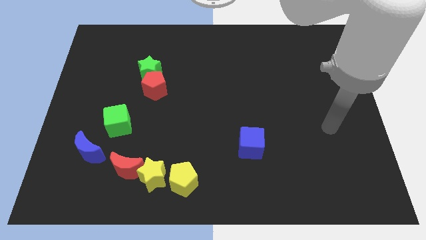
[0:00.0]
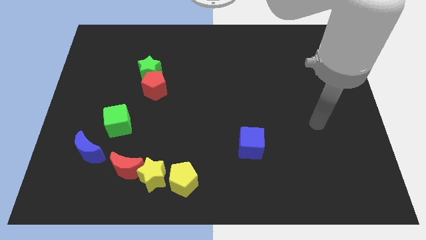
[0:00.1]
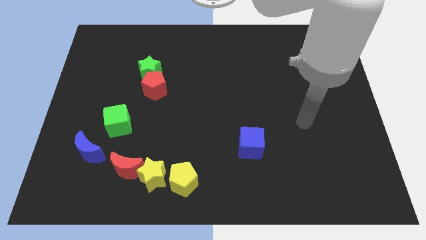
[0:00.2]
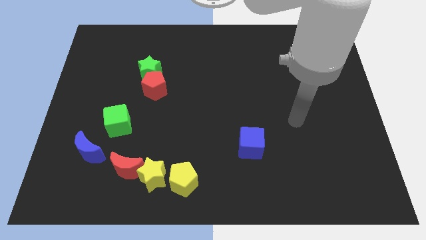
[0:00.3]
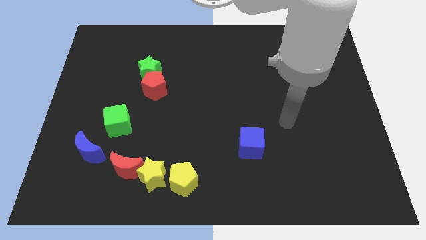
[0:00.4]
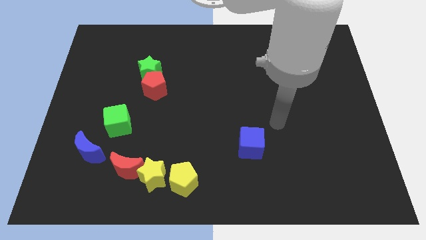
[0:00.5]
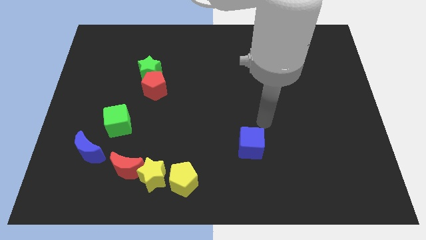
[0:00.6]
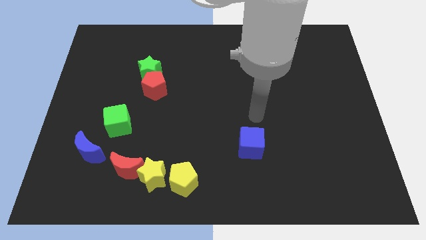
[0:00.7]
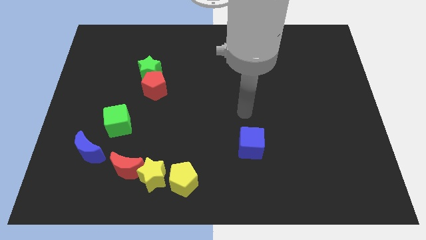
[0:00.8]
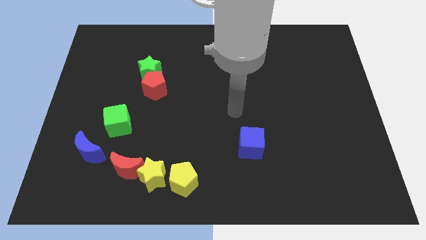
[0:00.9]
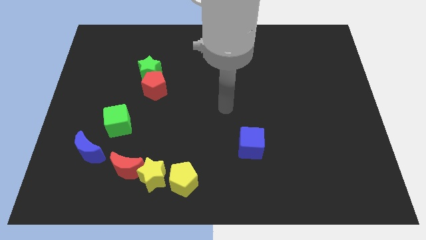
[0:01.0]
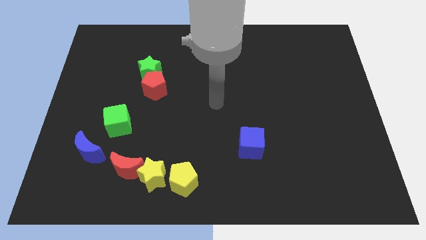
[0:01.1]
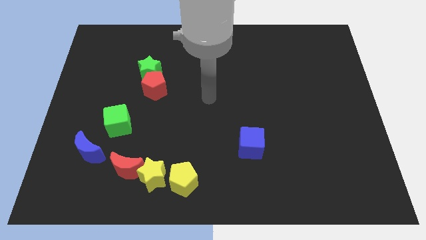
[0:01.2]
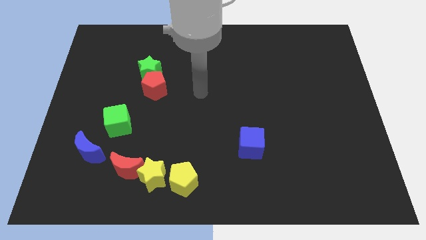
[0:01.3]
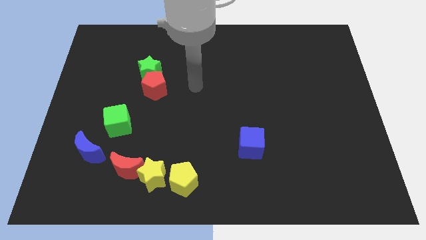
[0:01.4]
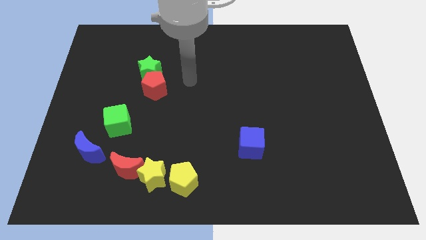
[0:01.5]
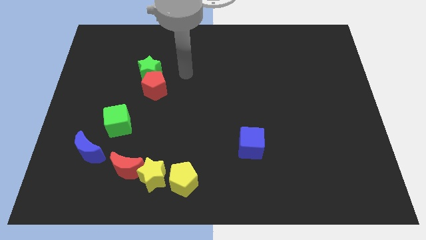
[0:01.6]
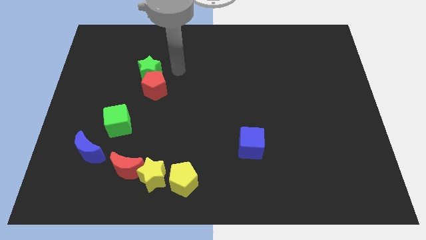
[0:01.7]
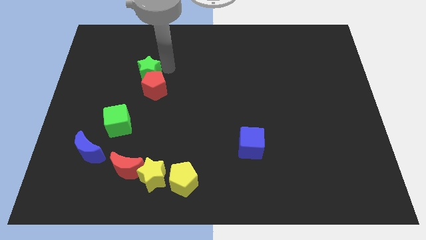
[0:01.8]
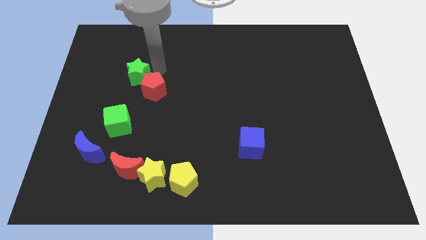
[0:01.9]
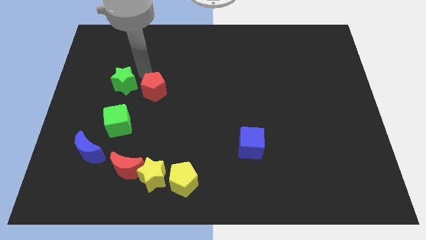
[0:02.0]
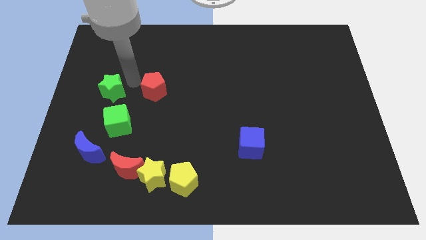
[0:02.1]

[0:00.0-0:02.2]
pull the red pentagon apart from the green star

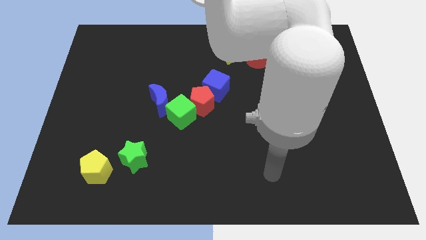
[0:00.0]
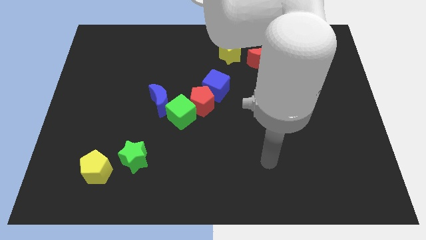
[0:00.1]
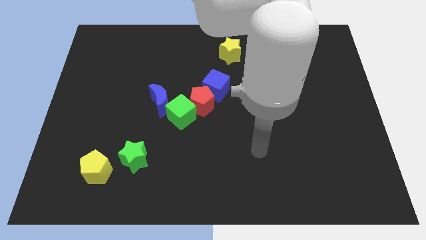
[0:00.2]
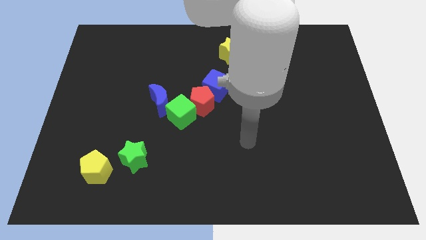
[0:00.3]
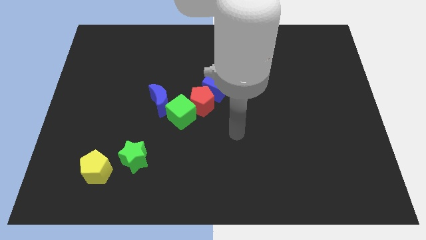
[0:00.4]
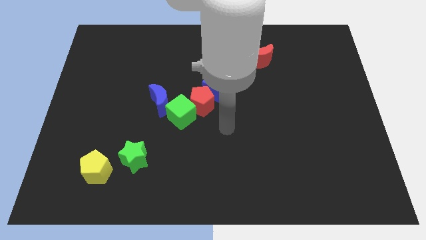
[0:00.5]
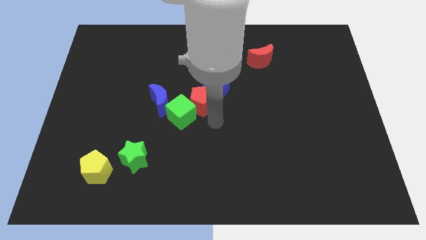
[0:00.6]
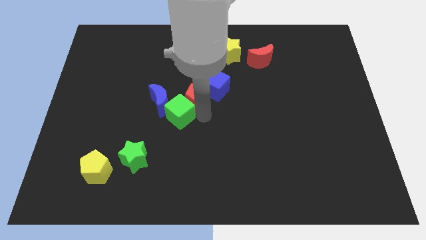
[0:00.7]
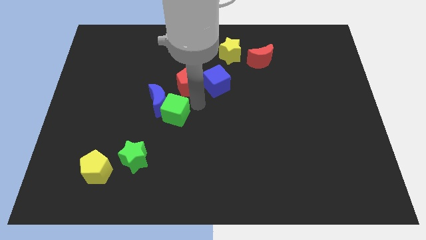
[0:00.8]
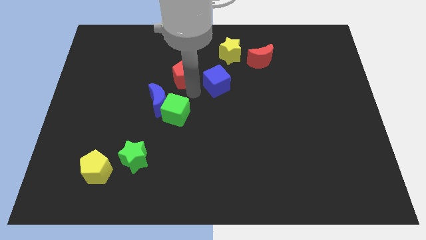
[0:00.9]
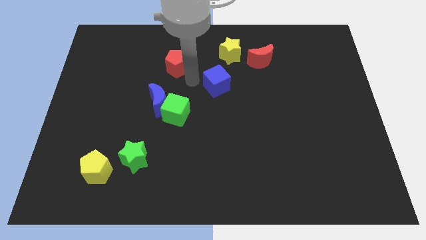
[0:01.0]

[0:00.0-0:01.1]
separate the blue cube from the red pentagon

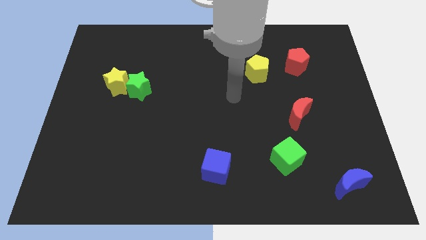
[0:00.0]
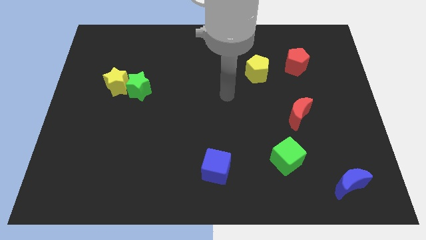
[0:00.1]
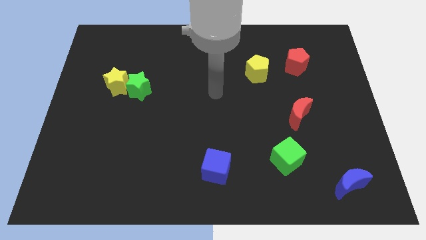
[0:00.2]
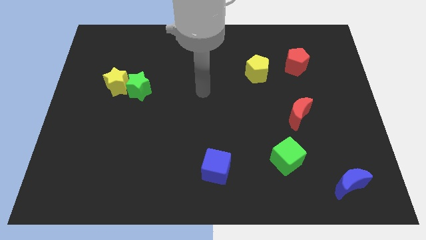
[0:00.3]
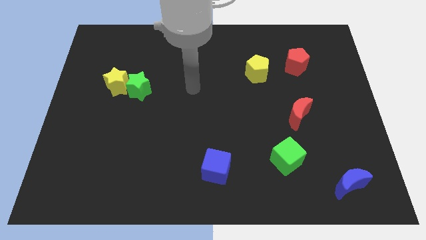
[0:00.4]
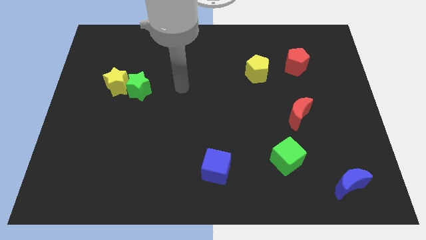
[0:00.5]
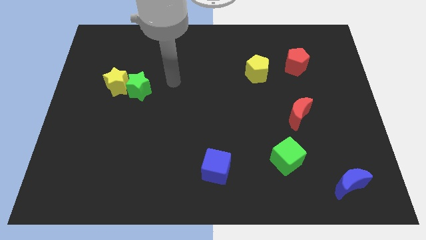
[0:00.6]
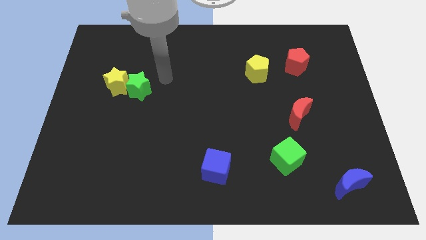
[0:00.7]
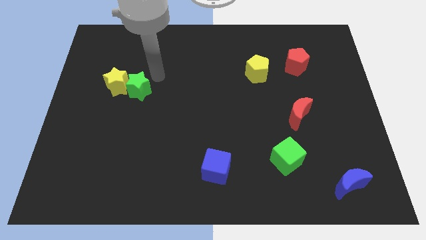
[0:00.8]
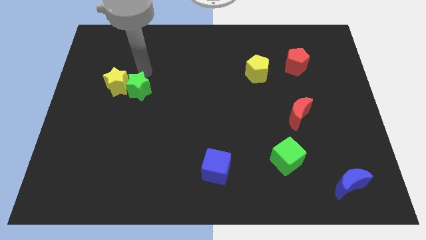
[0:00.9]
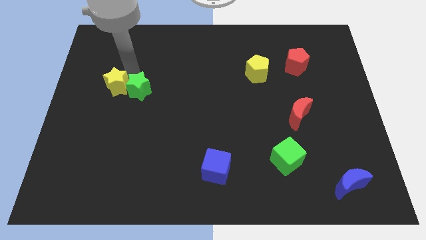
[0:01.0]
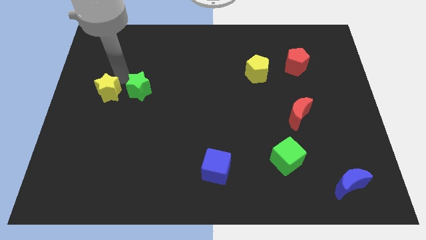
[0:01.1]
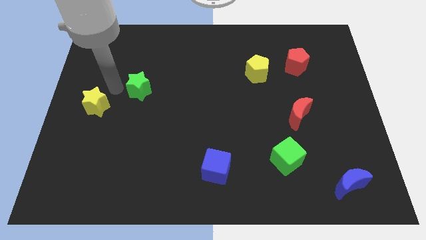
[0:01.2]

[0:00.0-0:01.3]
pull the green star apart from the yellow star

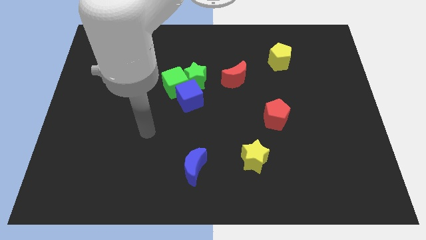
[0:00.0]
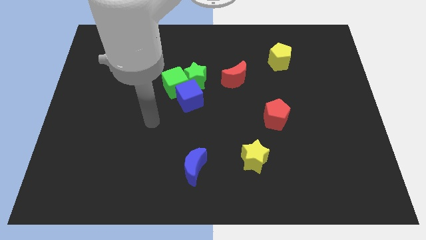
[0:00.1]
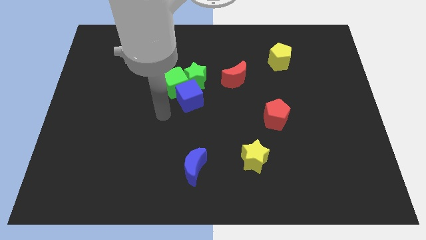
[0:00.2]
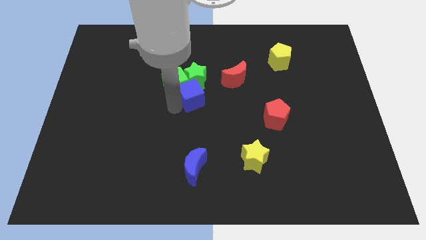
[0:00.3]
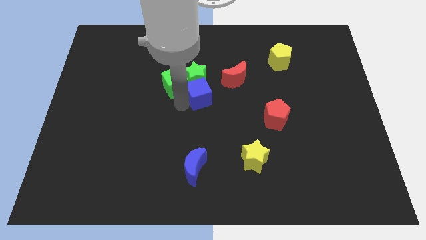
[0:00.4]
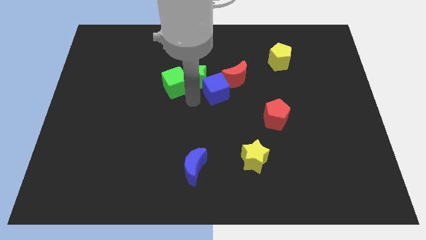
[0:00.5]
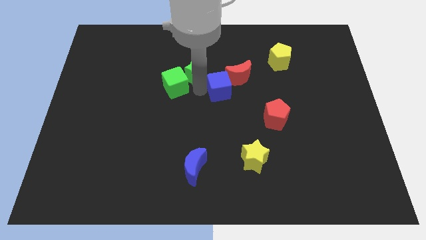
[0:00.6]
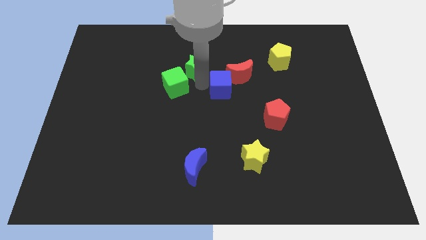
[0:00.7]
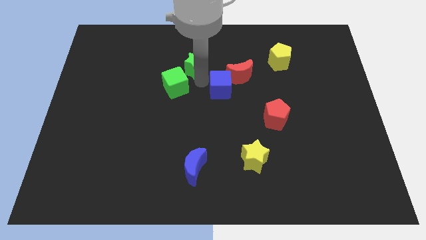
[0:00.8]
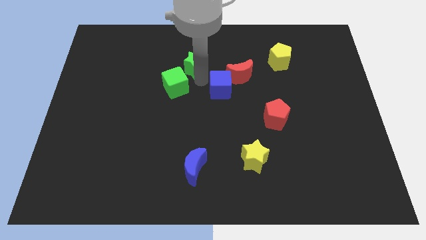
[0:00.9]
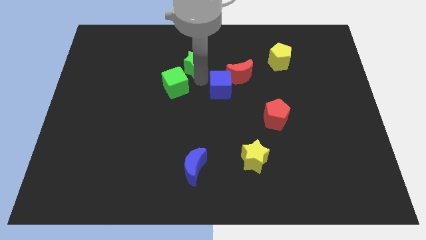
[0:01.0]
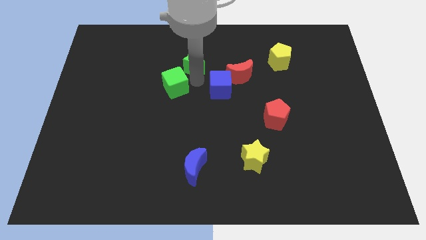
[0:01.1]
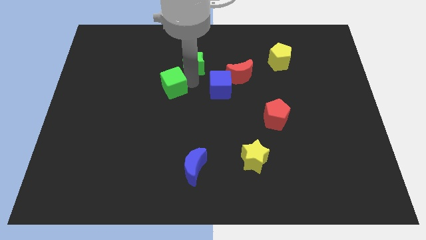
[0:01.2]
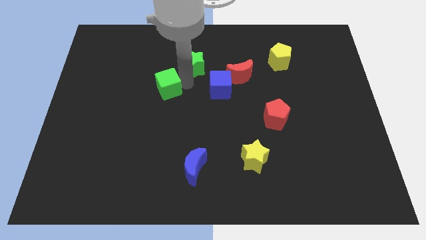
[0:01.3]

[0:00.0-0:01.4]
separate the green cube from the green star and blue cube

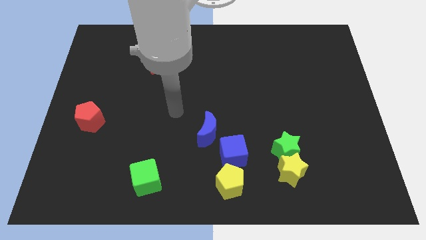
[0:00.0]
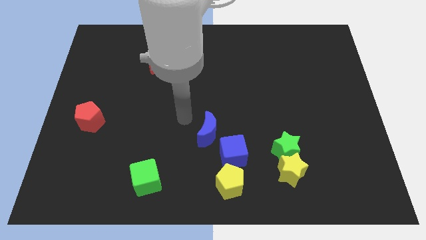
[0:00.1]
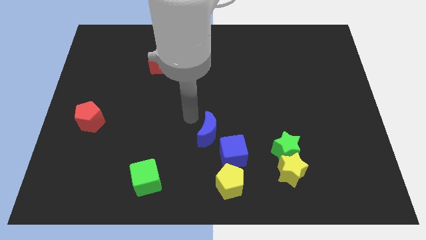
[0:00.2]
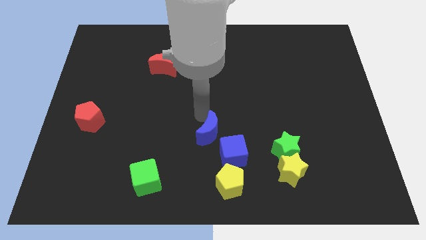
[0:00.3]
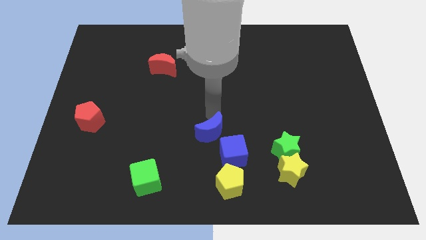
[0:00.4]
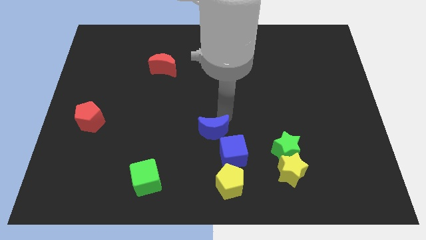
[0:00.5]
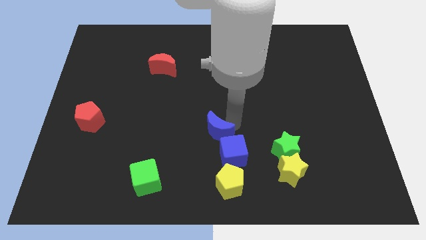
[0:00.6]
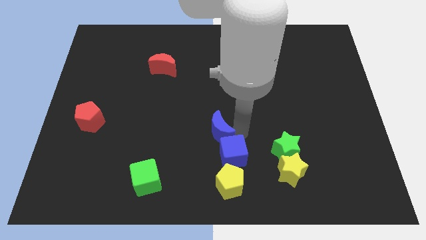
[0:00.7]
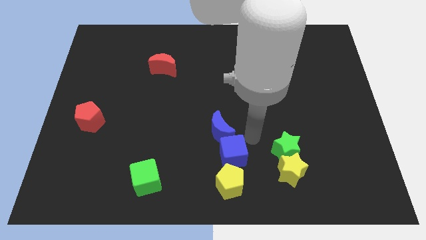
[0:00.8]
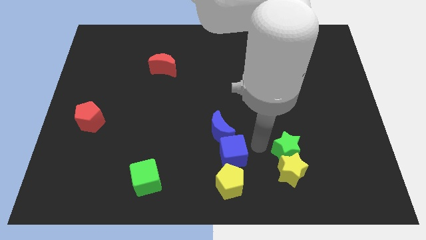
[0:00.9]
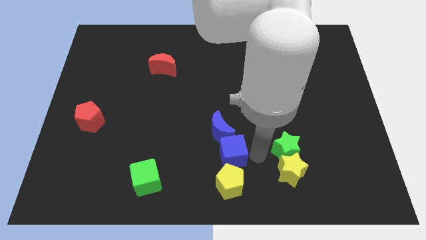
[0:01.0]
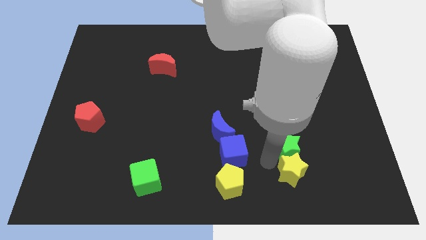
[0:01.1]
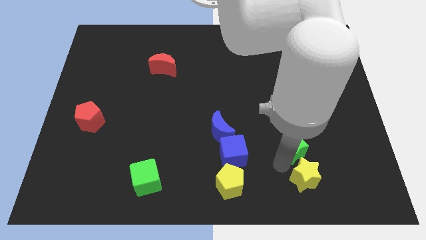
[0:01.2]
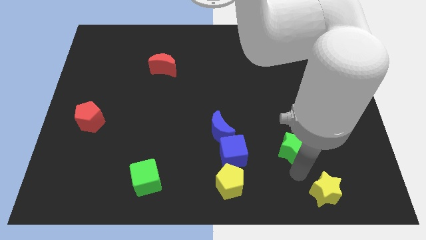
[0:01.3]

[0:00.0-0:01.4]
separate the green star from the yellow star

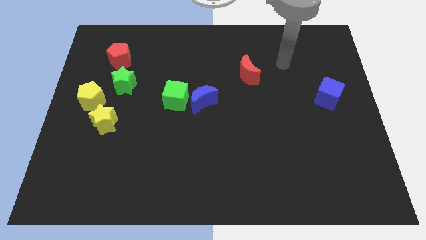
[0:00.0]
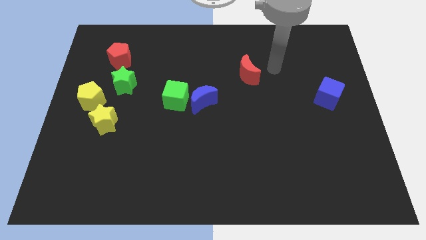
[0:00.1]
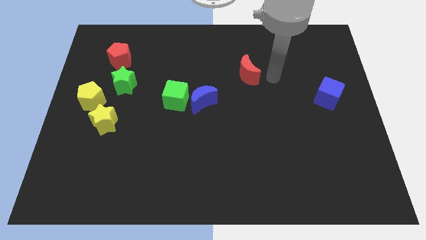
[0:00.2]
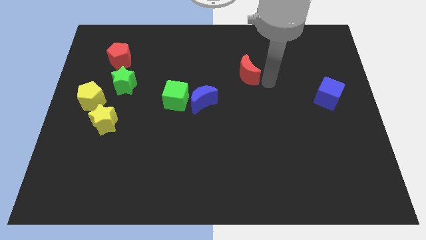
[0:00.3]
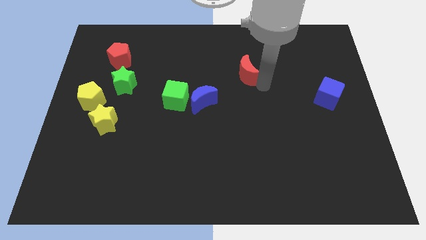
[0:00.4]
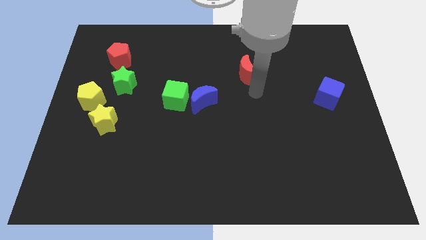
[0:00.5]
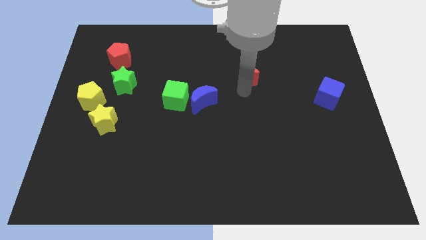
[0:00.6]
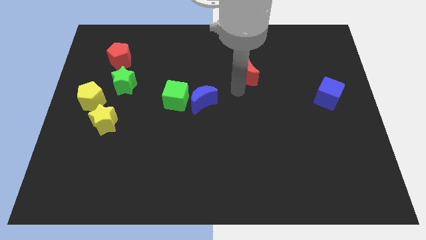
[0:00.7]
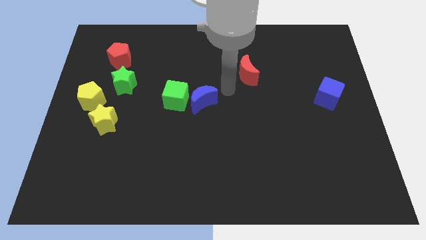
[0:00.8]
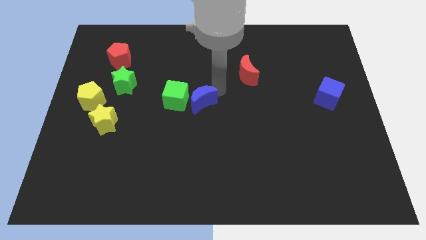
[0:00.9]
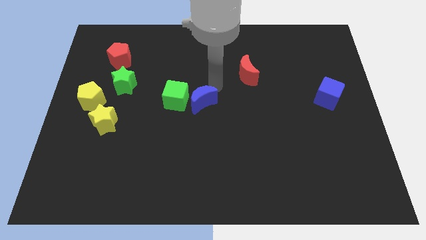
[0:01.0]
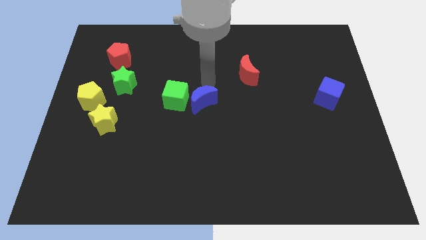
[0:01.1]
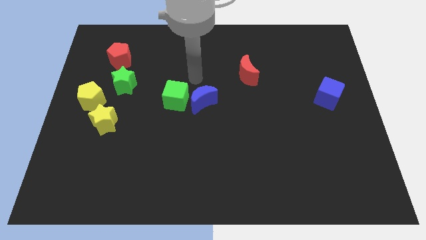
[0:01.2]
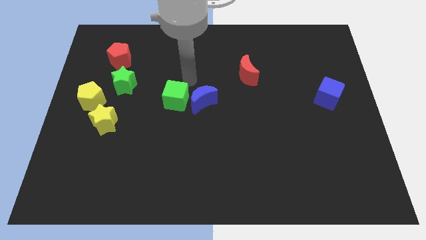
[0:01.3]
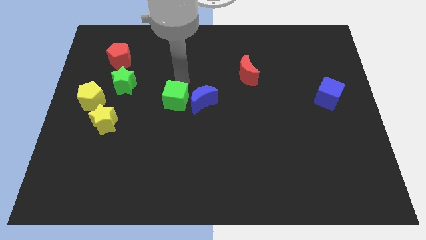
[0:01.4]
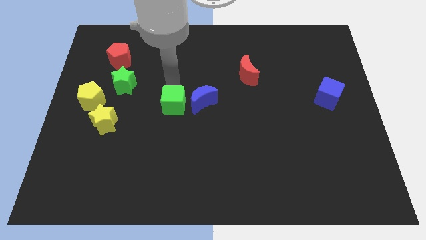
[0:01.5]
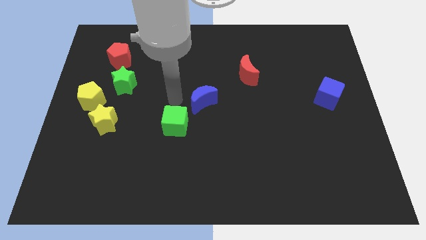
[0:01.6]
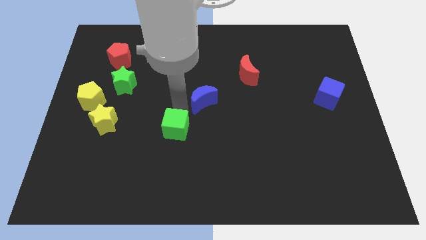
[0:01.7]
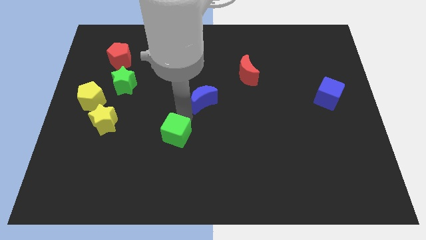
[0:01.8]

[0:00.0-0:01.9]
pull the blue moon apart from the green cube
